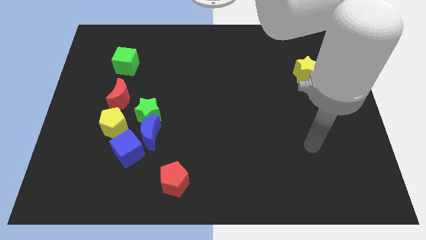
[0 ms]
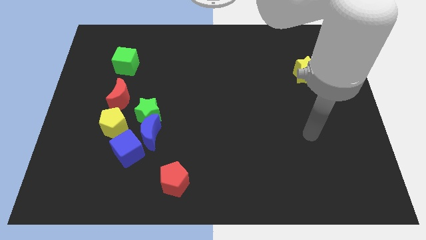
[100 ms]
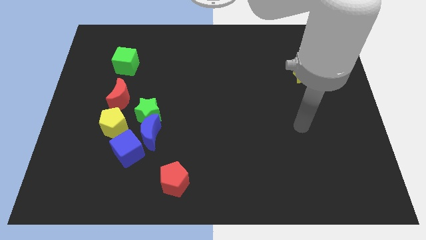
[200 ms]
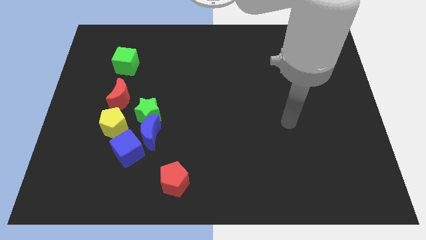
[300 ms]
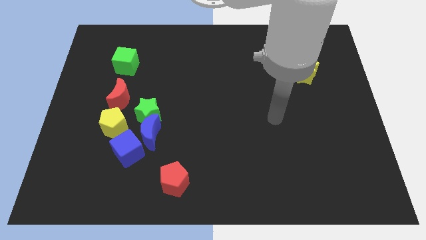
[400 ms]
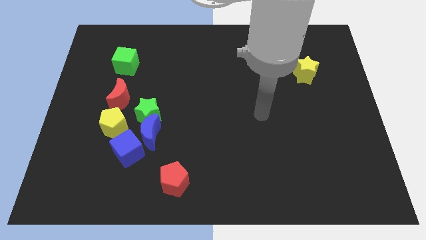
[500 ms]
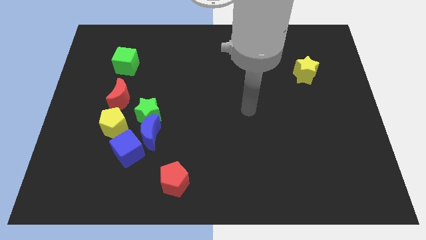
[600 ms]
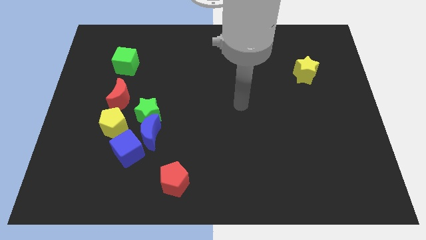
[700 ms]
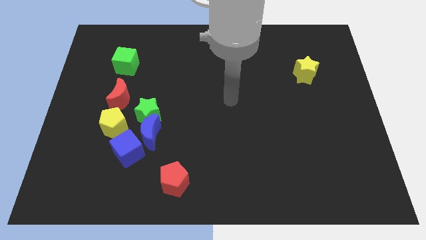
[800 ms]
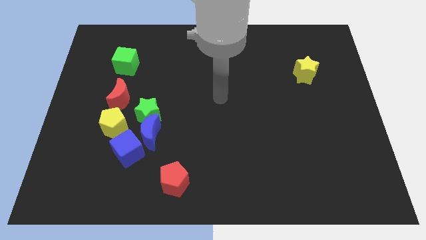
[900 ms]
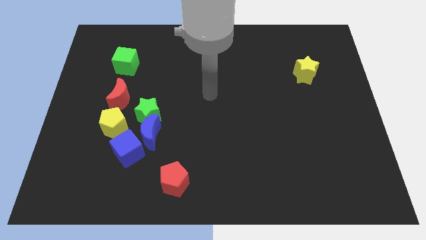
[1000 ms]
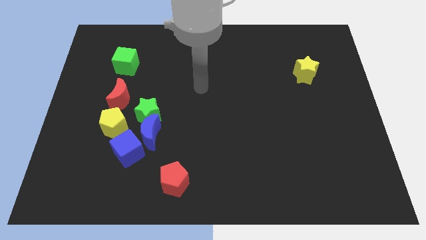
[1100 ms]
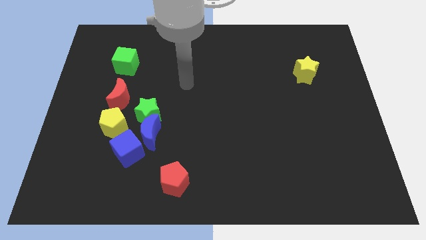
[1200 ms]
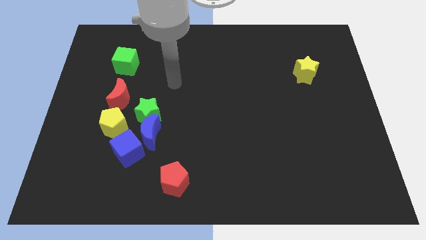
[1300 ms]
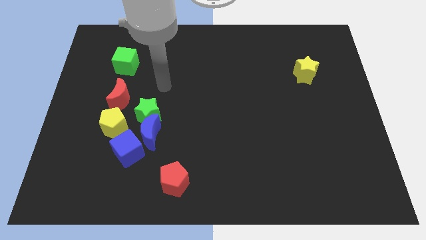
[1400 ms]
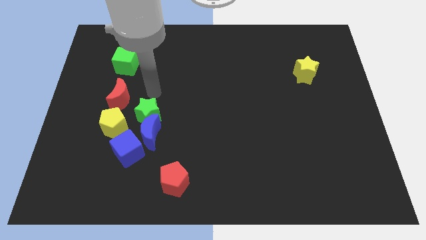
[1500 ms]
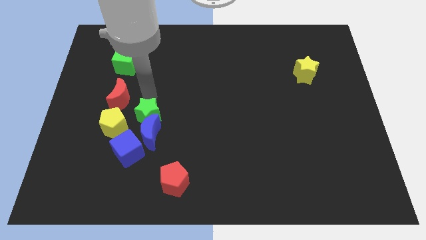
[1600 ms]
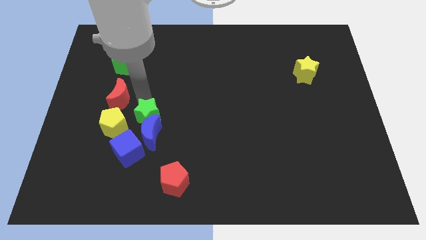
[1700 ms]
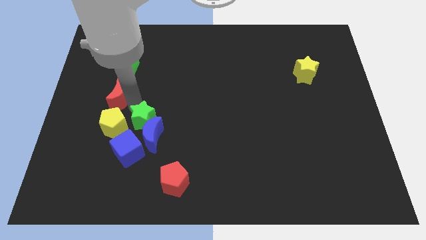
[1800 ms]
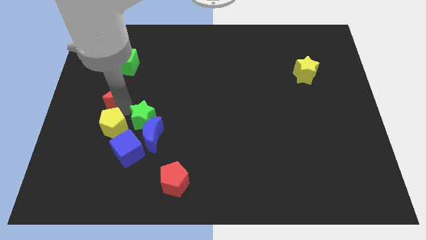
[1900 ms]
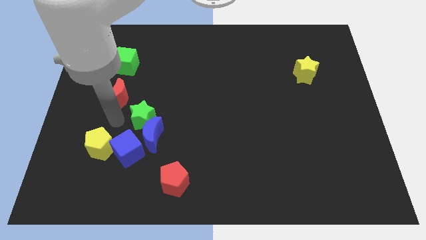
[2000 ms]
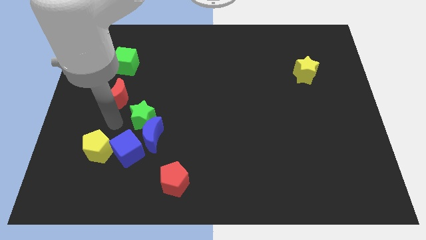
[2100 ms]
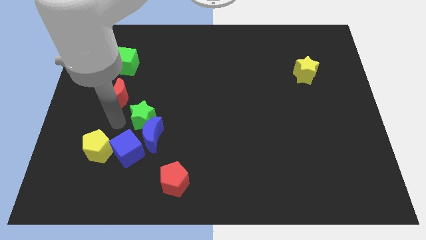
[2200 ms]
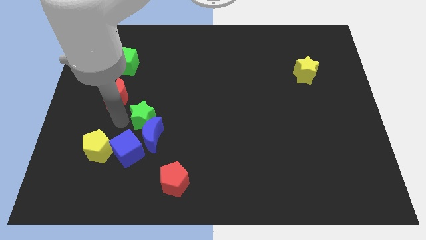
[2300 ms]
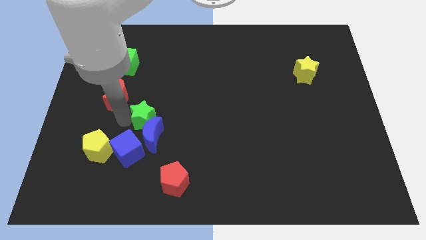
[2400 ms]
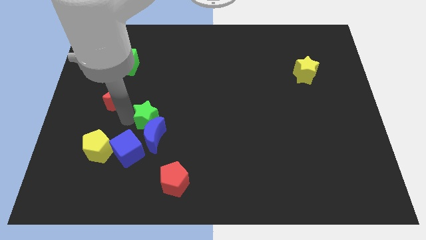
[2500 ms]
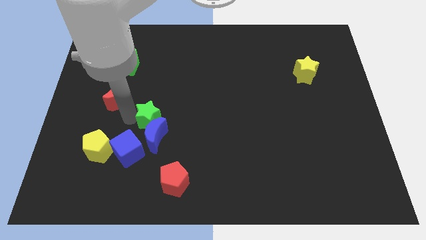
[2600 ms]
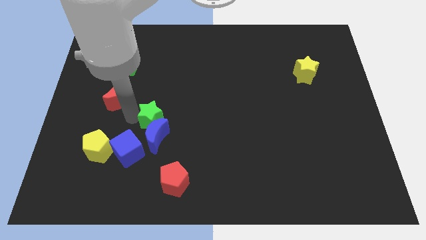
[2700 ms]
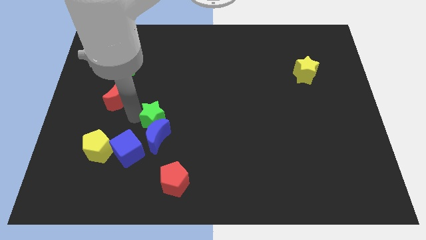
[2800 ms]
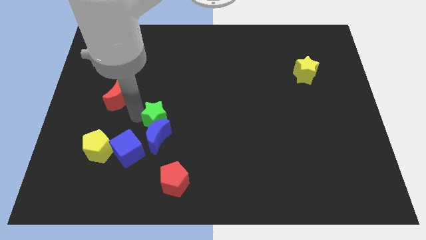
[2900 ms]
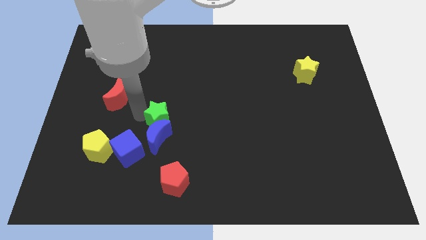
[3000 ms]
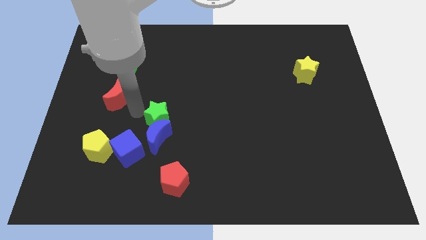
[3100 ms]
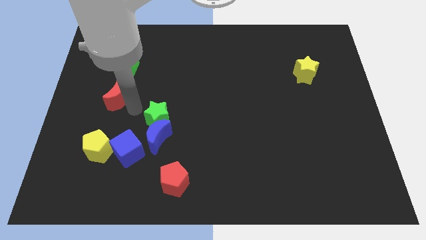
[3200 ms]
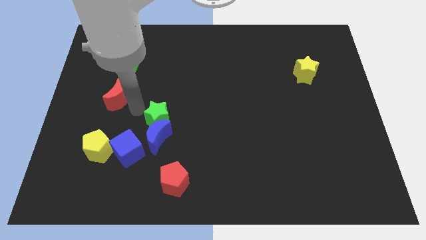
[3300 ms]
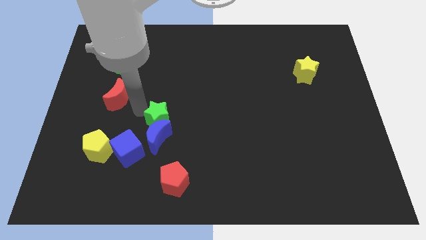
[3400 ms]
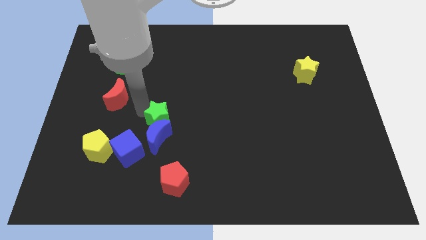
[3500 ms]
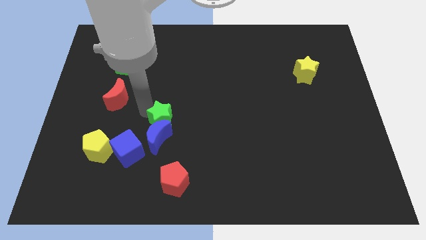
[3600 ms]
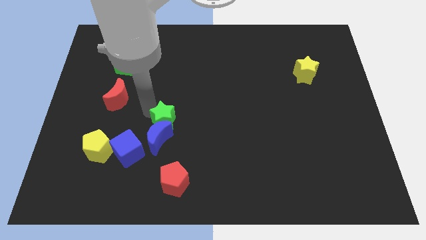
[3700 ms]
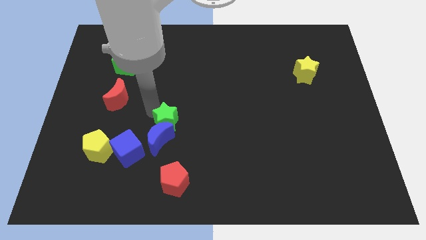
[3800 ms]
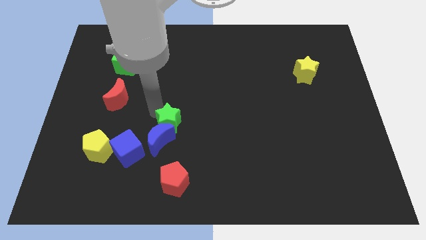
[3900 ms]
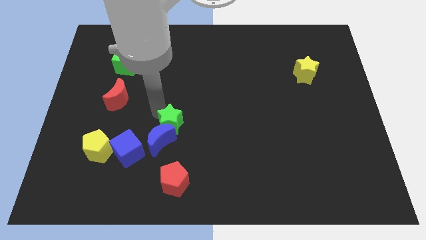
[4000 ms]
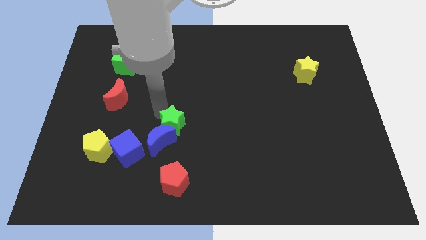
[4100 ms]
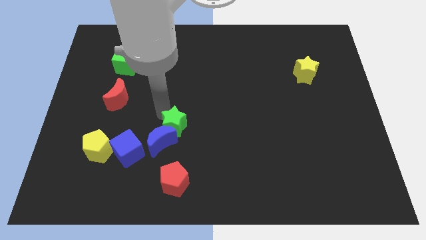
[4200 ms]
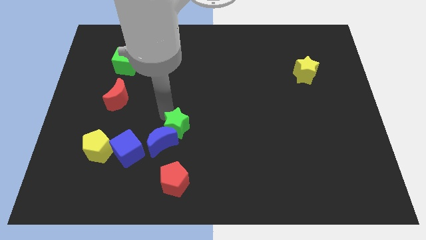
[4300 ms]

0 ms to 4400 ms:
slightly slide the green star downwards and to the right

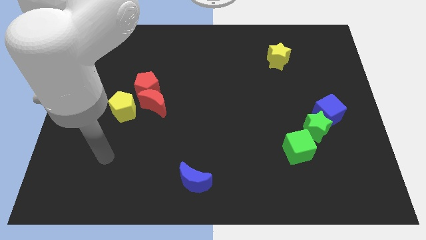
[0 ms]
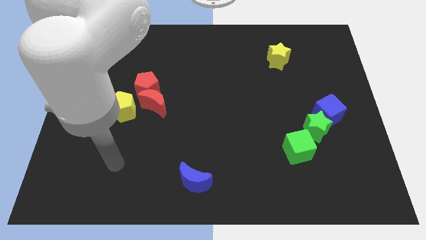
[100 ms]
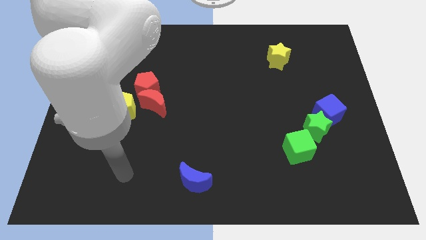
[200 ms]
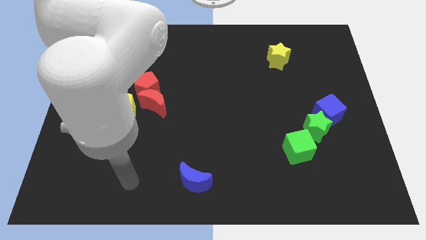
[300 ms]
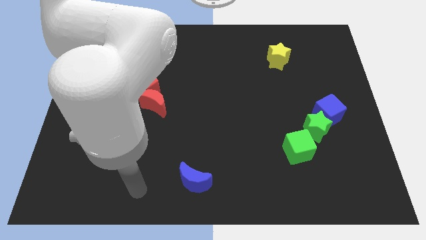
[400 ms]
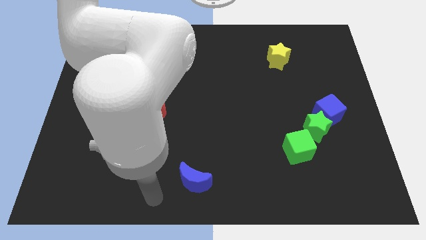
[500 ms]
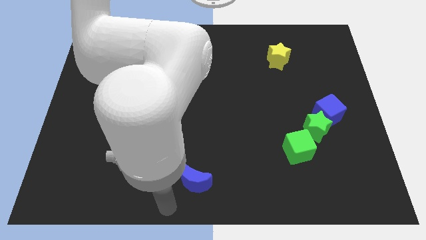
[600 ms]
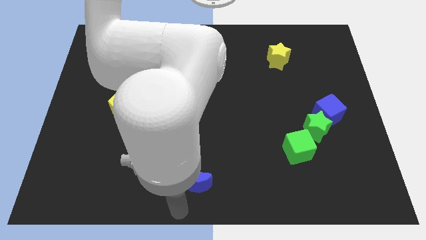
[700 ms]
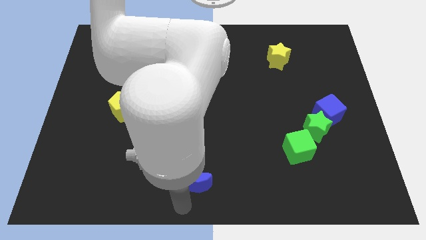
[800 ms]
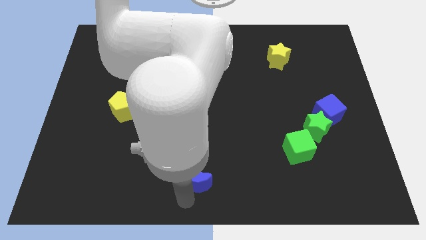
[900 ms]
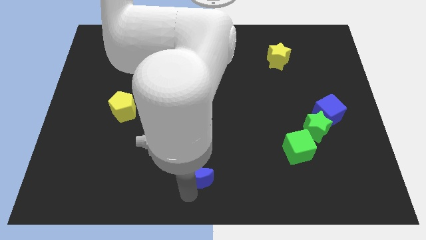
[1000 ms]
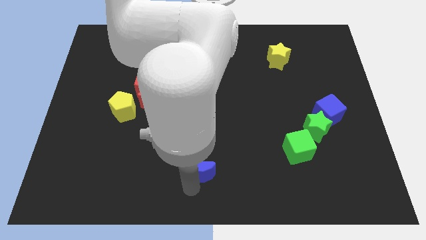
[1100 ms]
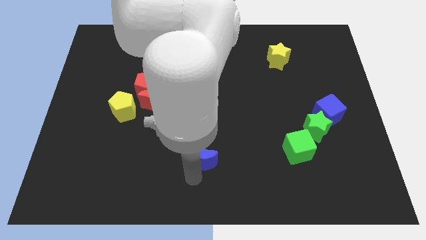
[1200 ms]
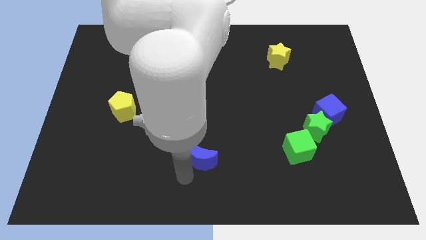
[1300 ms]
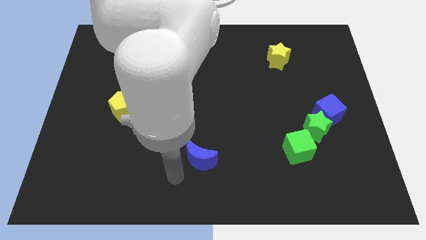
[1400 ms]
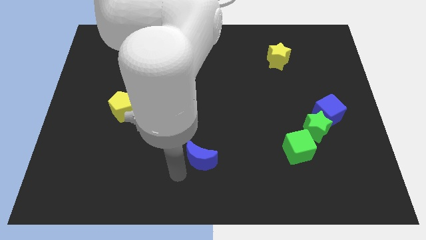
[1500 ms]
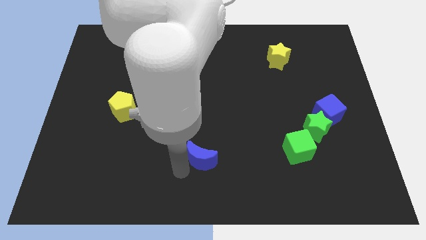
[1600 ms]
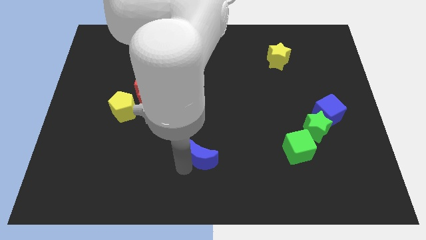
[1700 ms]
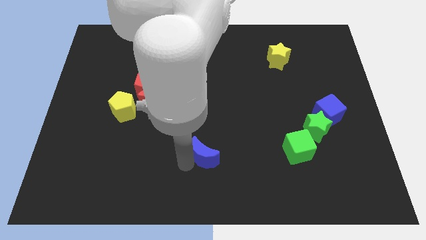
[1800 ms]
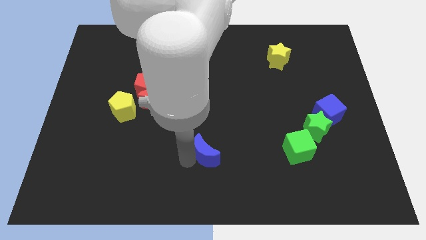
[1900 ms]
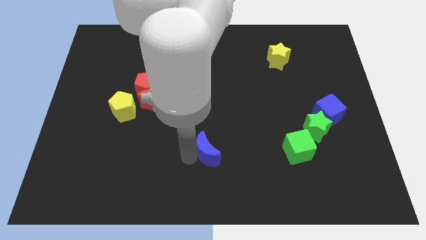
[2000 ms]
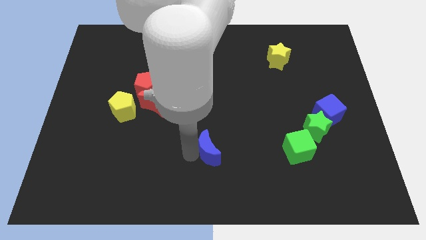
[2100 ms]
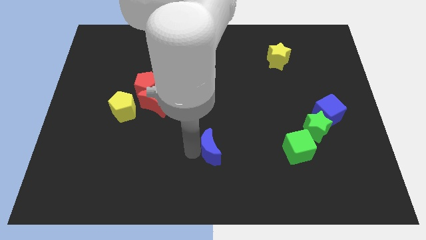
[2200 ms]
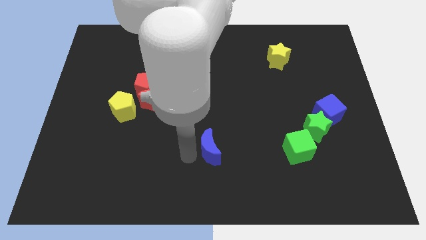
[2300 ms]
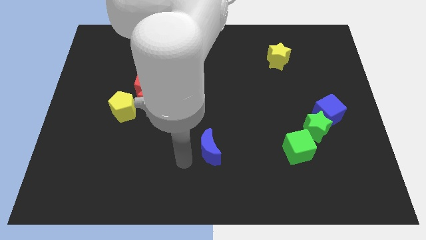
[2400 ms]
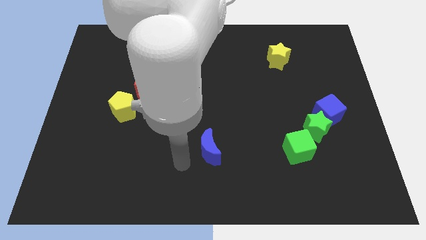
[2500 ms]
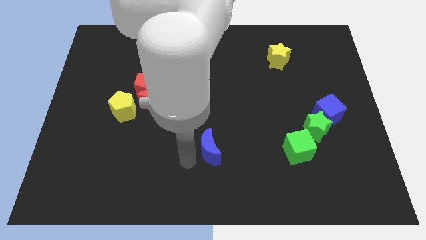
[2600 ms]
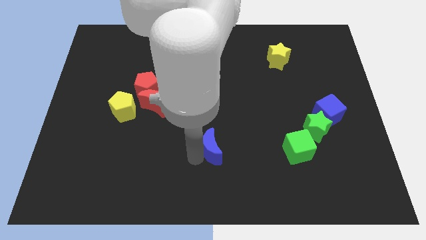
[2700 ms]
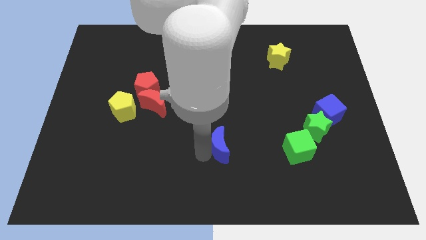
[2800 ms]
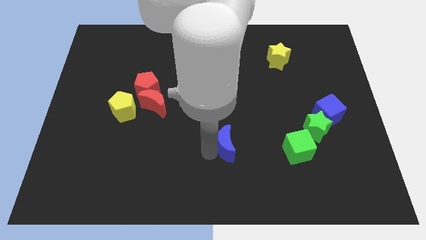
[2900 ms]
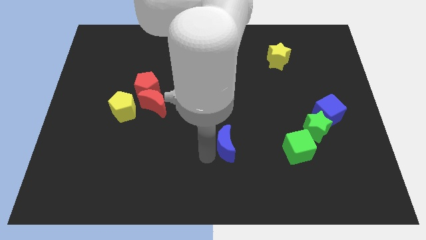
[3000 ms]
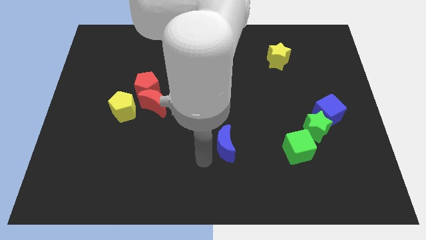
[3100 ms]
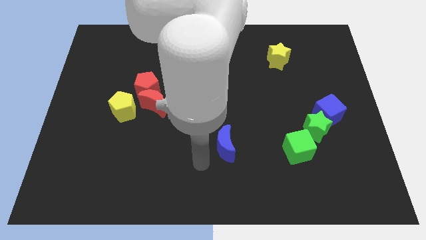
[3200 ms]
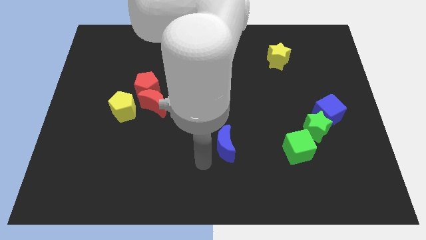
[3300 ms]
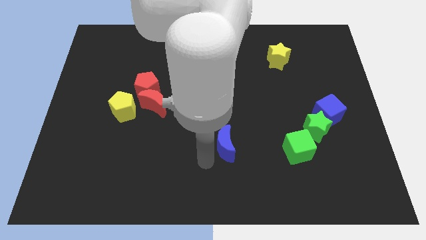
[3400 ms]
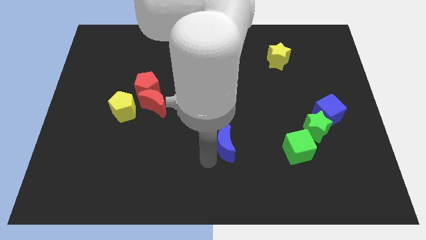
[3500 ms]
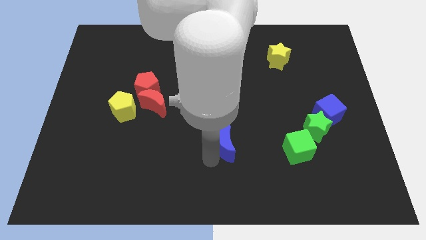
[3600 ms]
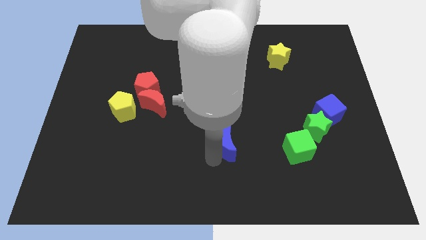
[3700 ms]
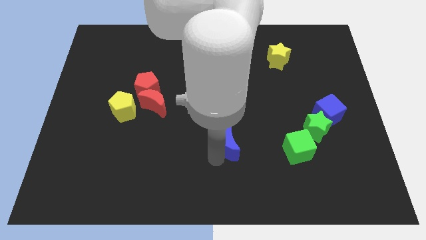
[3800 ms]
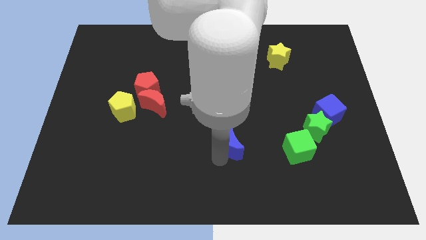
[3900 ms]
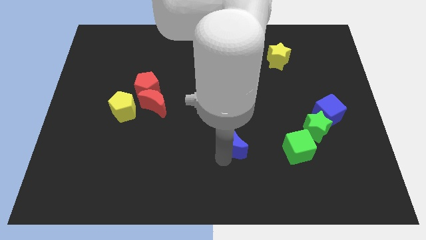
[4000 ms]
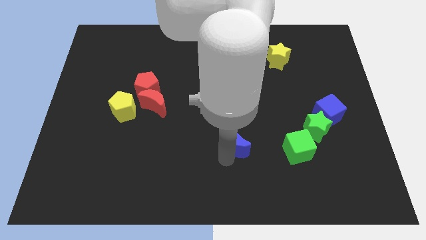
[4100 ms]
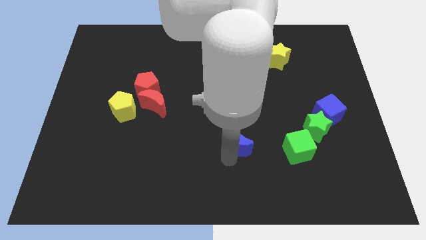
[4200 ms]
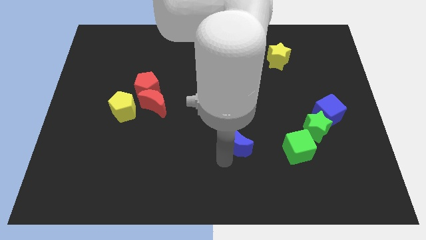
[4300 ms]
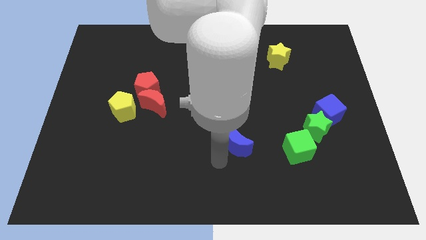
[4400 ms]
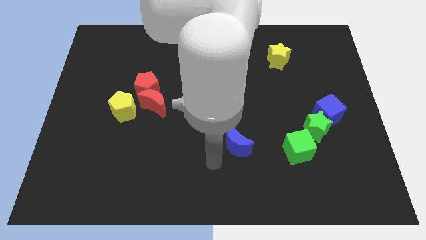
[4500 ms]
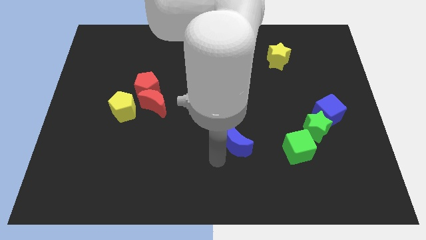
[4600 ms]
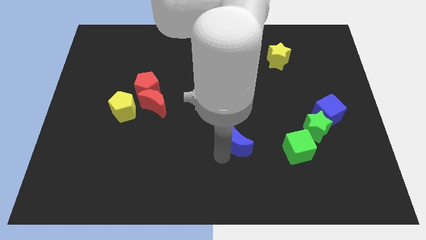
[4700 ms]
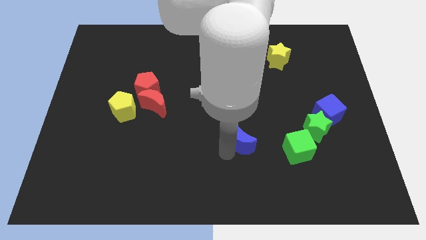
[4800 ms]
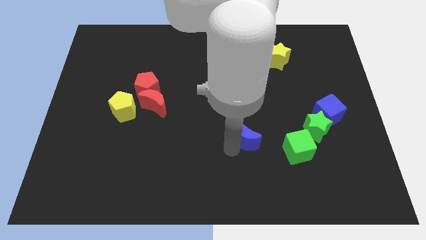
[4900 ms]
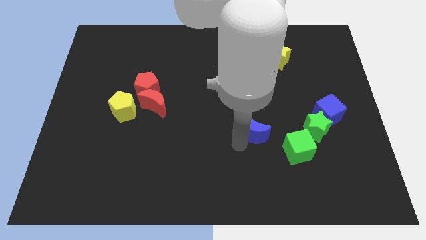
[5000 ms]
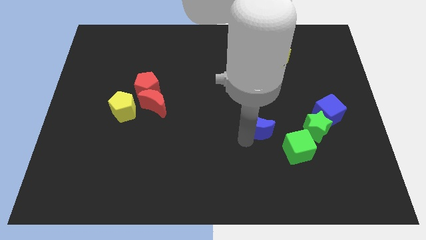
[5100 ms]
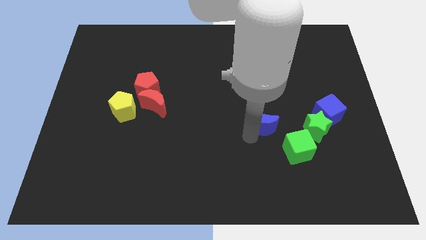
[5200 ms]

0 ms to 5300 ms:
move the blue moon up and then right
